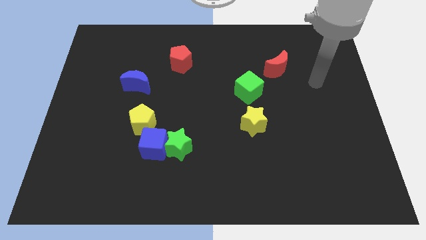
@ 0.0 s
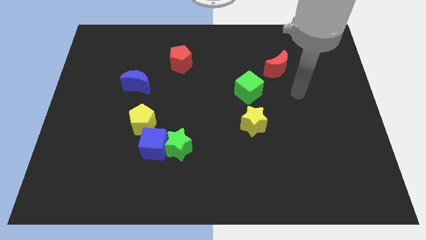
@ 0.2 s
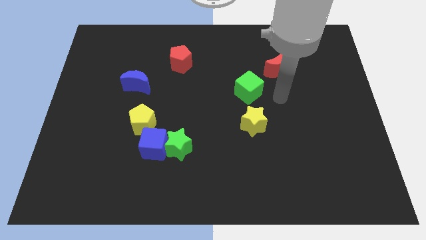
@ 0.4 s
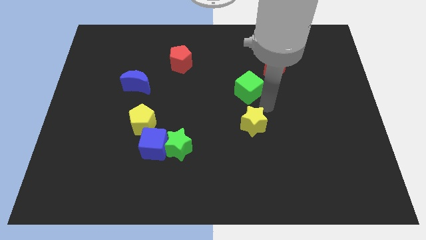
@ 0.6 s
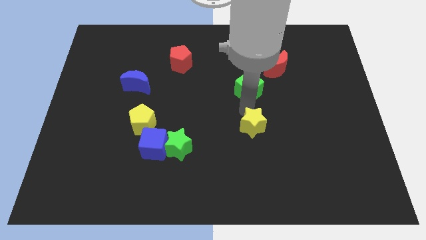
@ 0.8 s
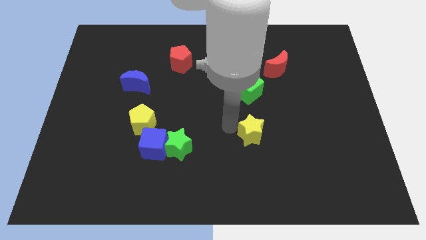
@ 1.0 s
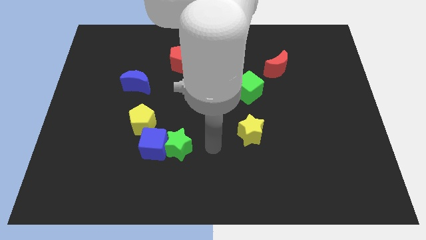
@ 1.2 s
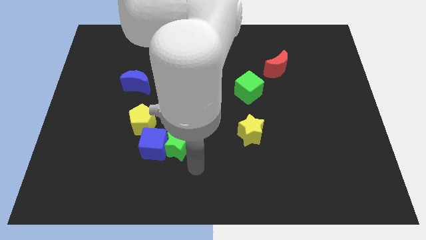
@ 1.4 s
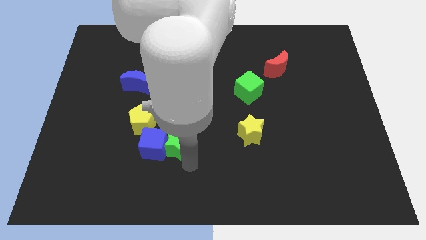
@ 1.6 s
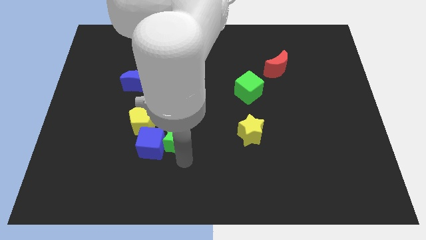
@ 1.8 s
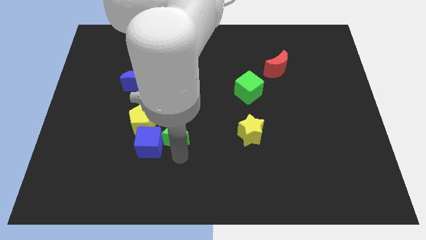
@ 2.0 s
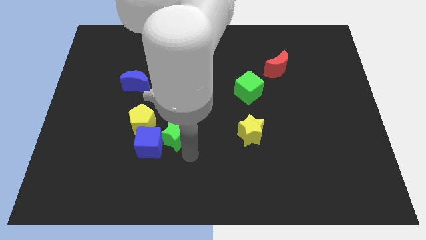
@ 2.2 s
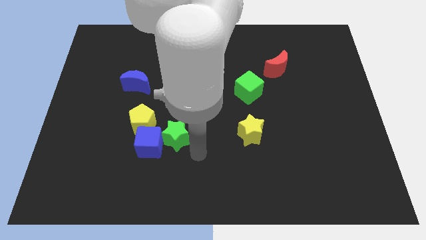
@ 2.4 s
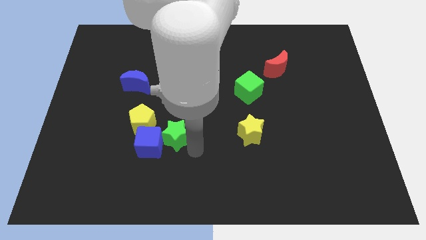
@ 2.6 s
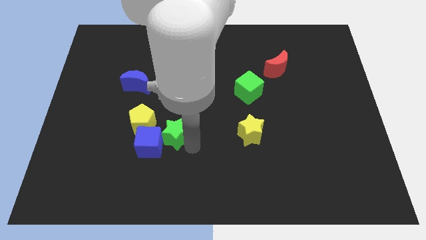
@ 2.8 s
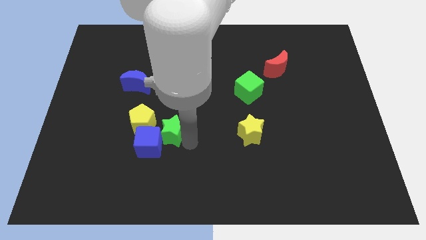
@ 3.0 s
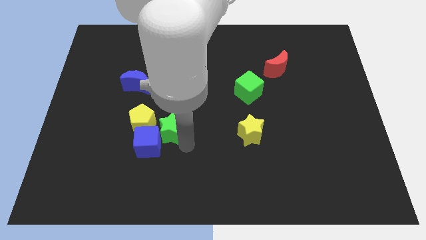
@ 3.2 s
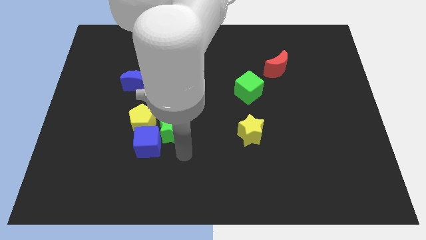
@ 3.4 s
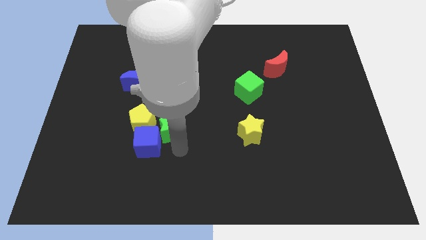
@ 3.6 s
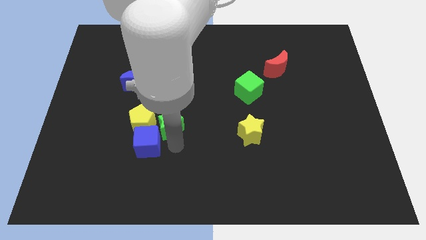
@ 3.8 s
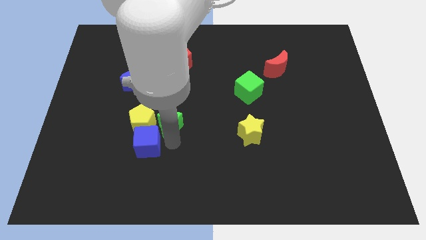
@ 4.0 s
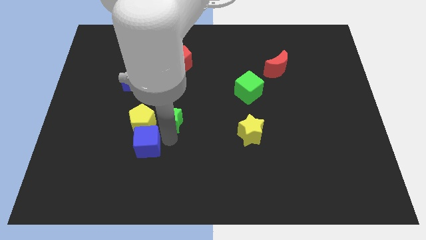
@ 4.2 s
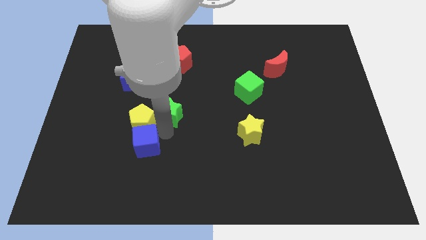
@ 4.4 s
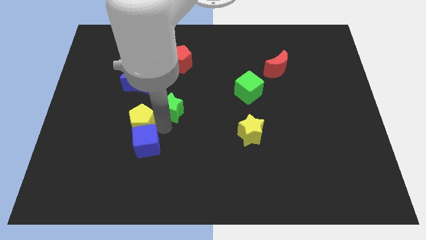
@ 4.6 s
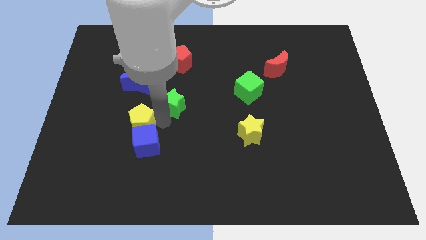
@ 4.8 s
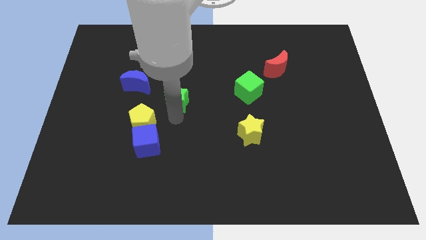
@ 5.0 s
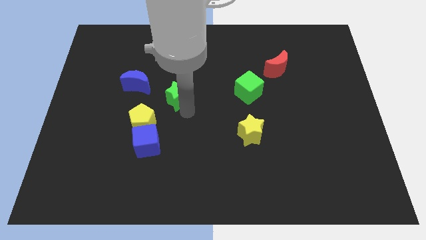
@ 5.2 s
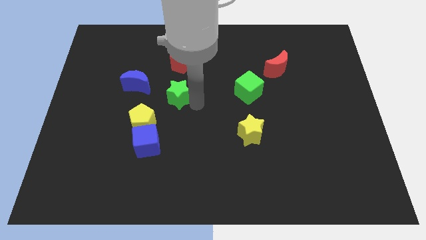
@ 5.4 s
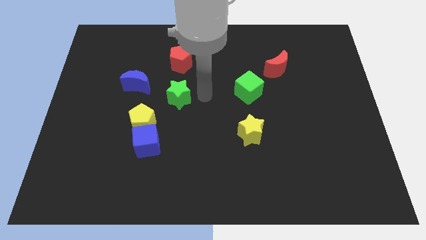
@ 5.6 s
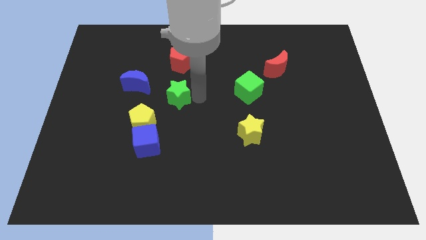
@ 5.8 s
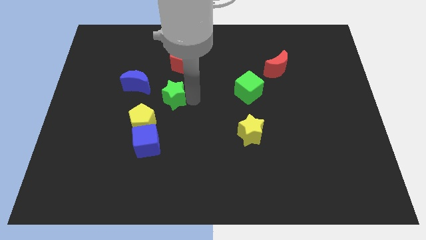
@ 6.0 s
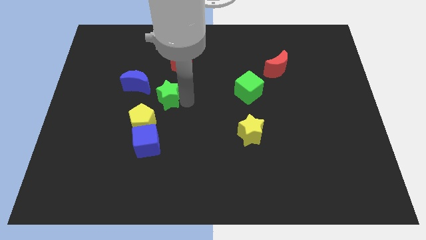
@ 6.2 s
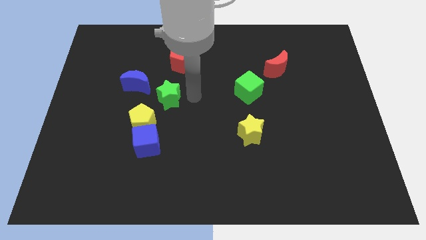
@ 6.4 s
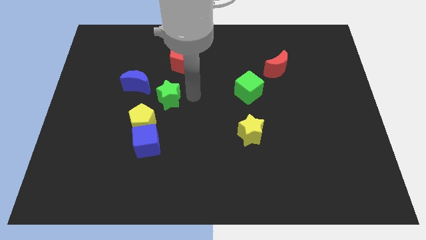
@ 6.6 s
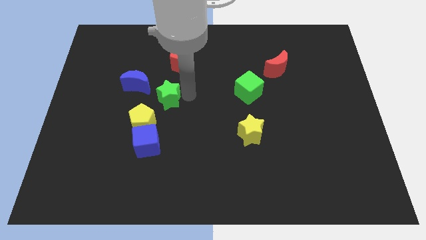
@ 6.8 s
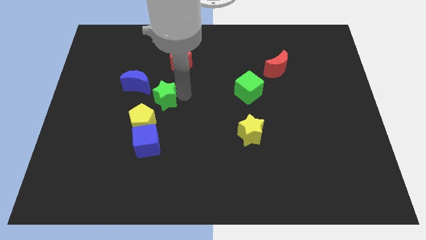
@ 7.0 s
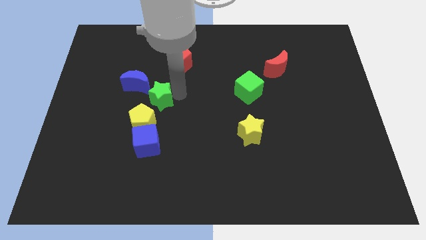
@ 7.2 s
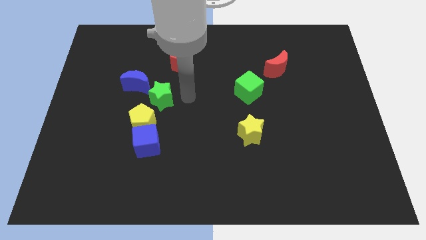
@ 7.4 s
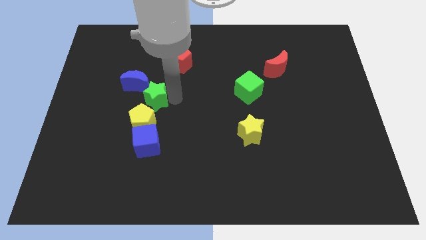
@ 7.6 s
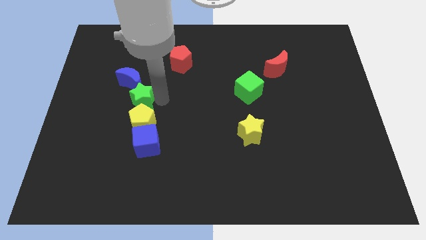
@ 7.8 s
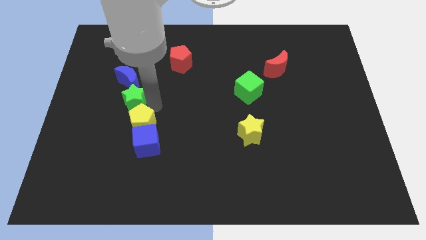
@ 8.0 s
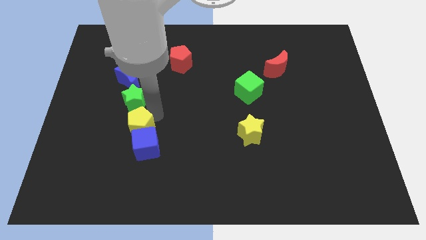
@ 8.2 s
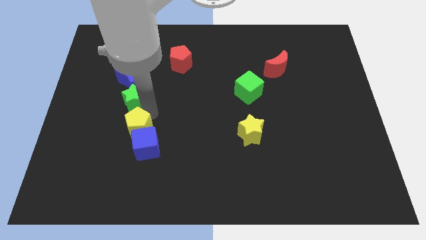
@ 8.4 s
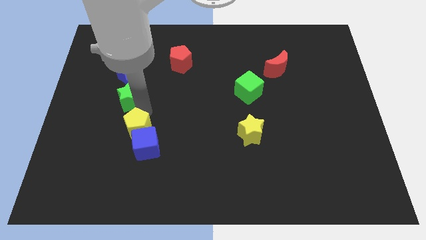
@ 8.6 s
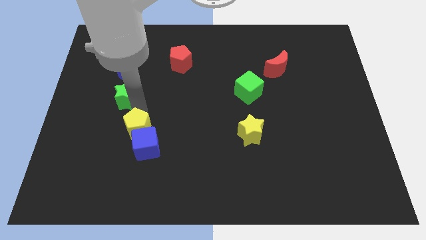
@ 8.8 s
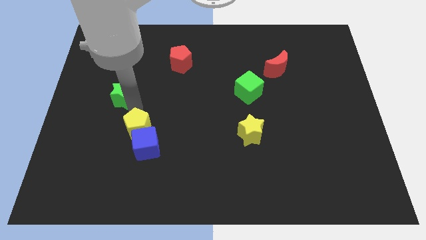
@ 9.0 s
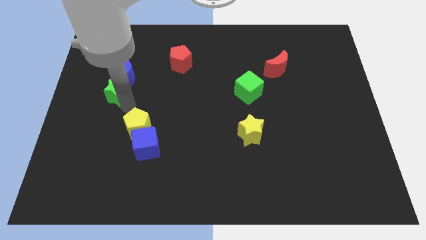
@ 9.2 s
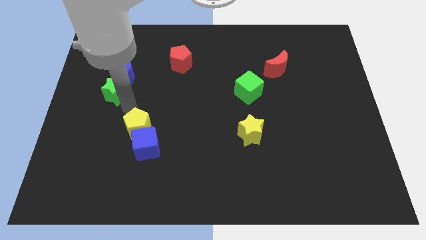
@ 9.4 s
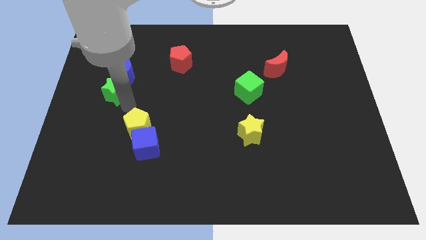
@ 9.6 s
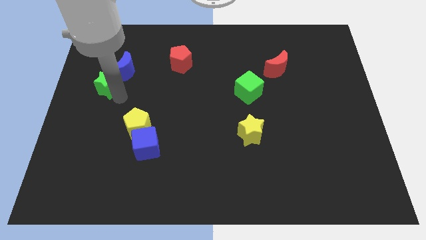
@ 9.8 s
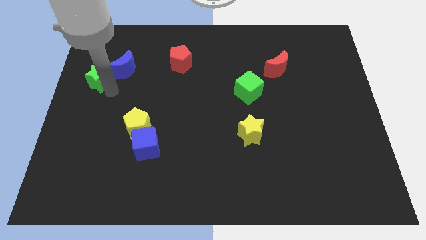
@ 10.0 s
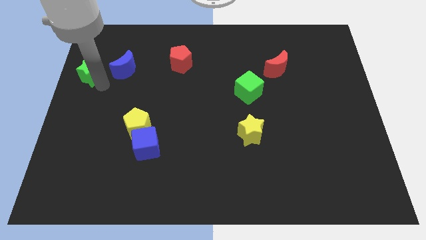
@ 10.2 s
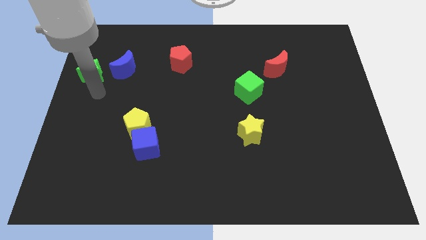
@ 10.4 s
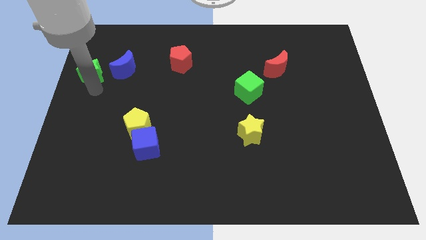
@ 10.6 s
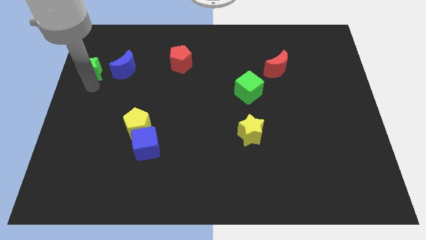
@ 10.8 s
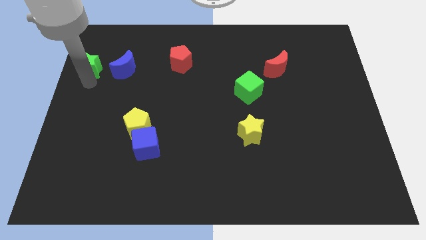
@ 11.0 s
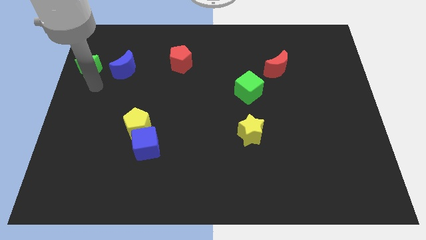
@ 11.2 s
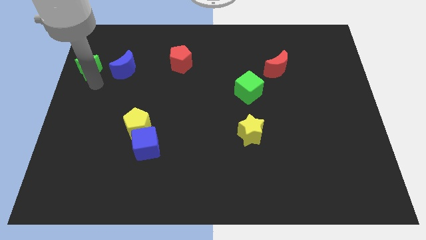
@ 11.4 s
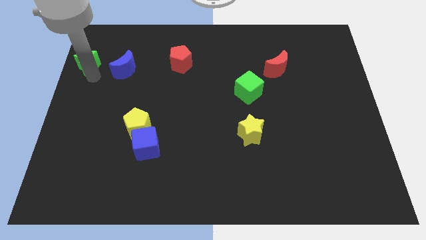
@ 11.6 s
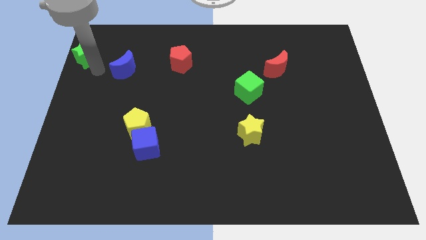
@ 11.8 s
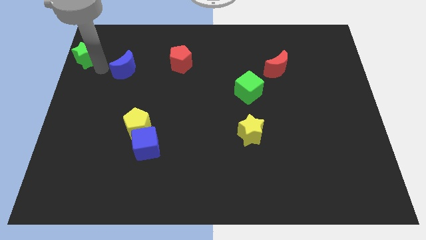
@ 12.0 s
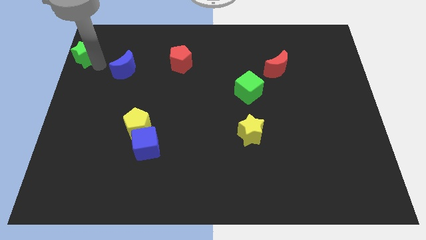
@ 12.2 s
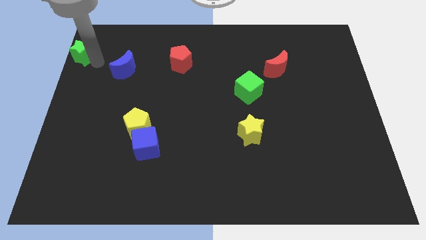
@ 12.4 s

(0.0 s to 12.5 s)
slide the green star to the top left

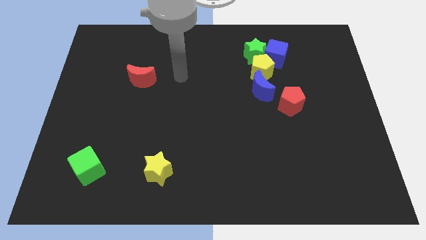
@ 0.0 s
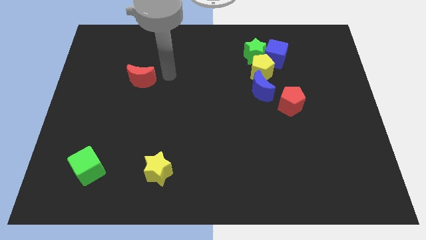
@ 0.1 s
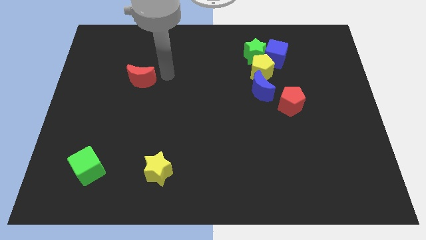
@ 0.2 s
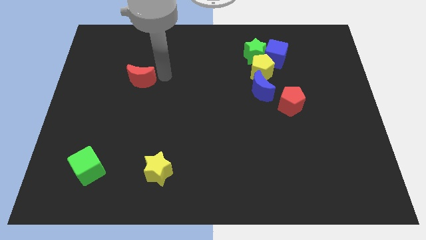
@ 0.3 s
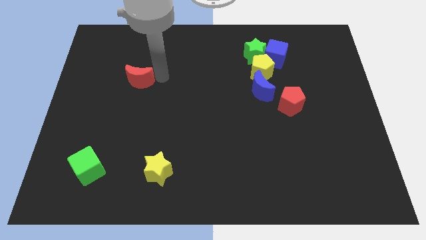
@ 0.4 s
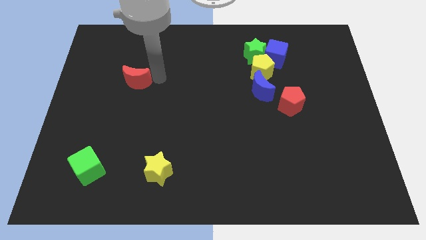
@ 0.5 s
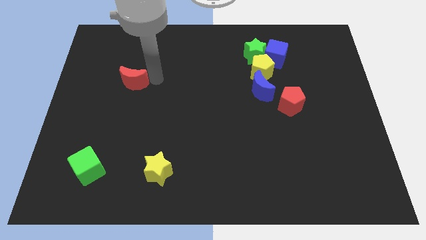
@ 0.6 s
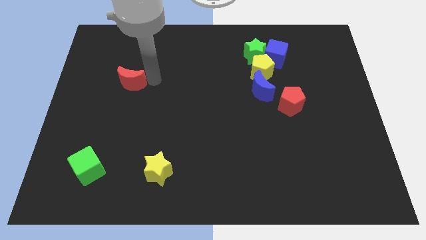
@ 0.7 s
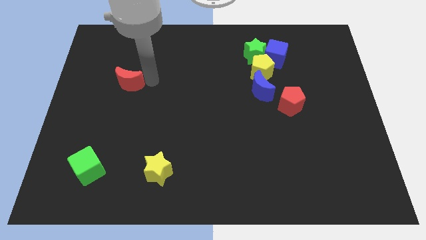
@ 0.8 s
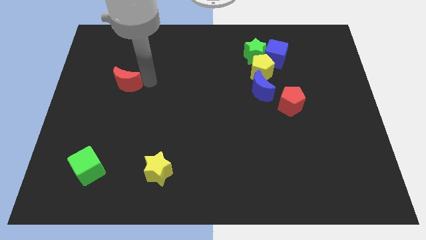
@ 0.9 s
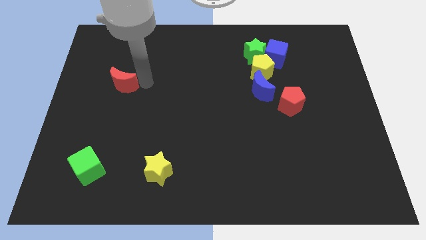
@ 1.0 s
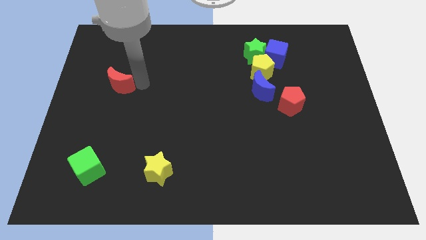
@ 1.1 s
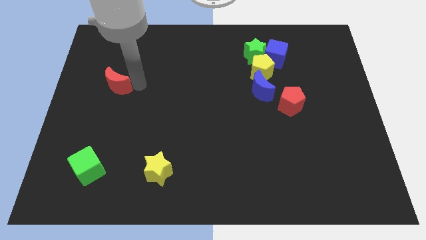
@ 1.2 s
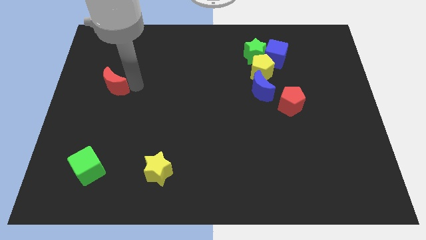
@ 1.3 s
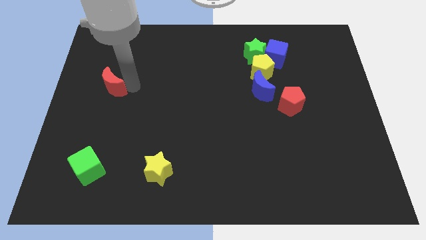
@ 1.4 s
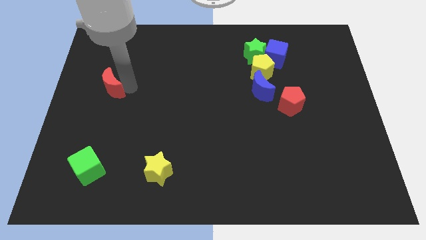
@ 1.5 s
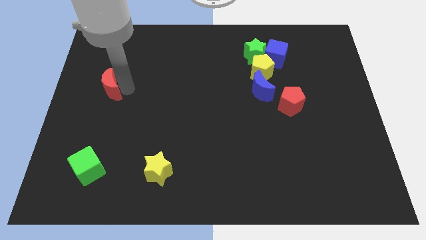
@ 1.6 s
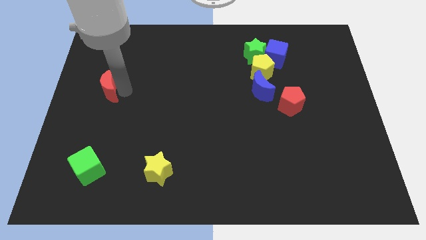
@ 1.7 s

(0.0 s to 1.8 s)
slide the red moon to the left side of the board
